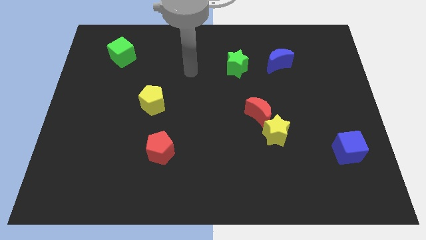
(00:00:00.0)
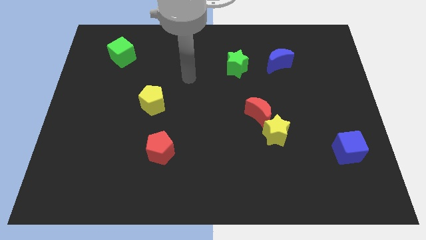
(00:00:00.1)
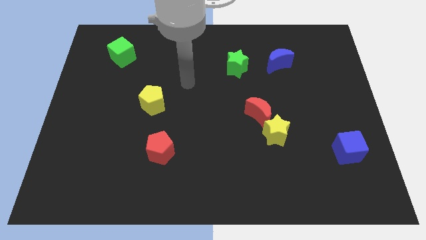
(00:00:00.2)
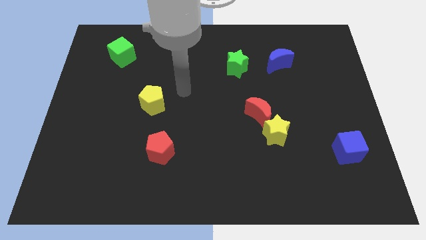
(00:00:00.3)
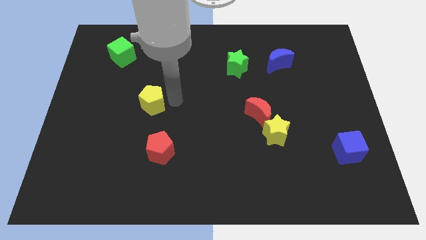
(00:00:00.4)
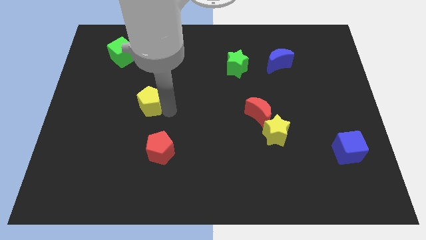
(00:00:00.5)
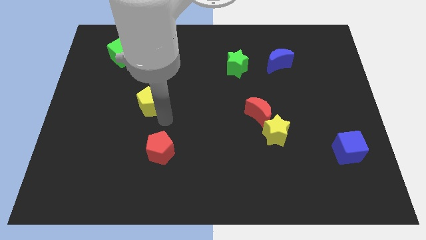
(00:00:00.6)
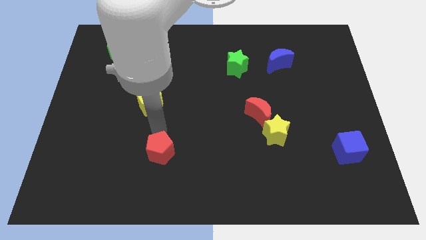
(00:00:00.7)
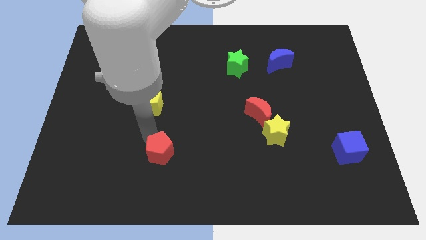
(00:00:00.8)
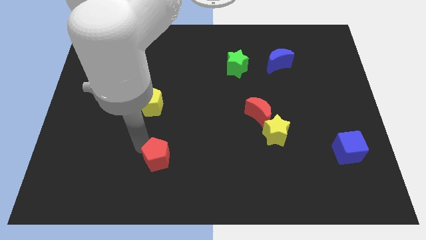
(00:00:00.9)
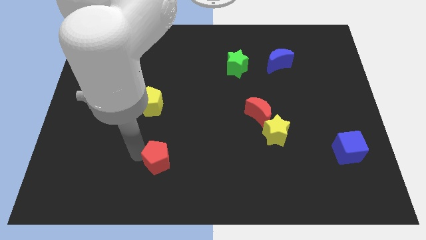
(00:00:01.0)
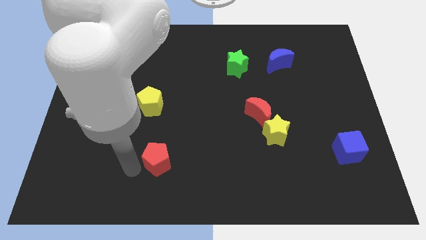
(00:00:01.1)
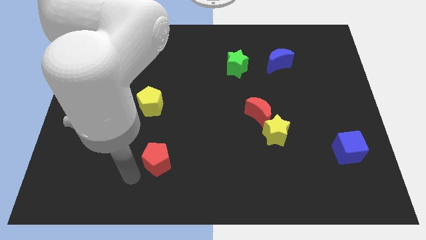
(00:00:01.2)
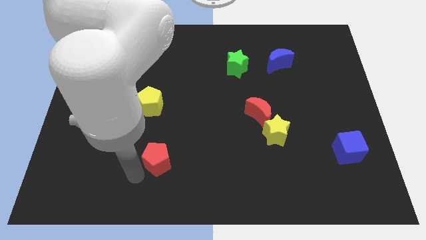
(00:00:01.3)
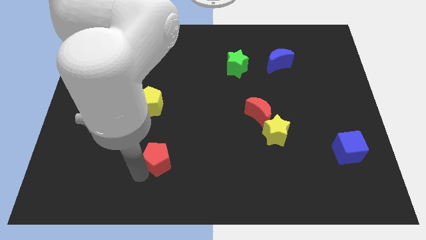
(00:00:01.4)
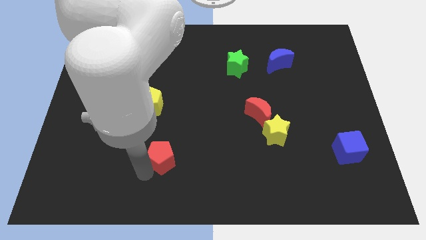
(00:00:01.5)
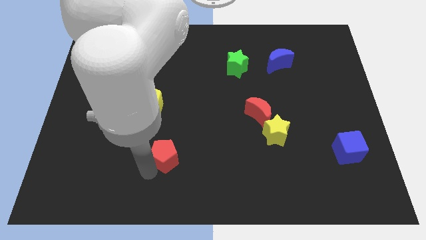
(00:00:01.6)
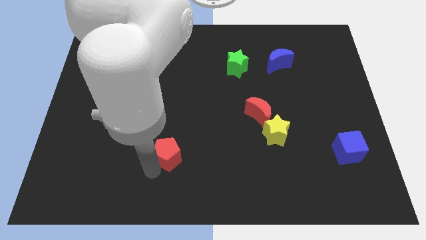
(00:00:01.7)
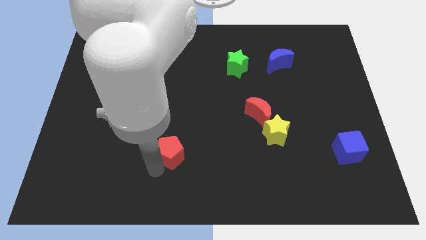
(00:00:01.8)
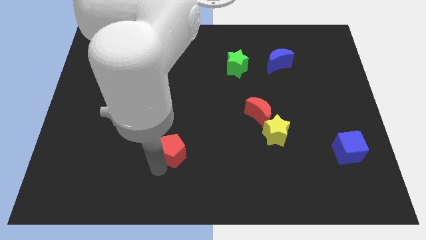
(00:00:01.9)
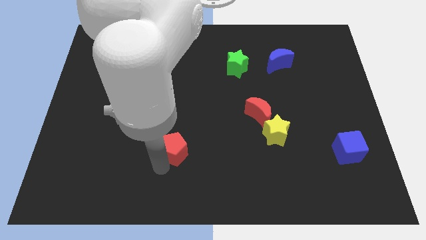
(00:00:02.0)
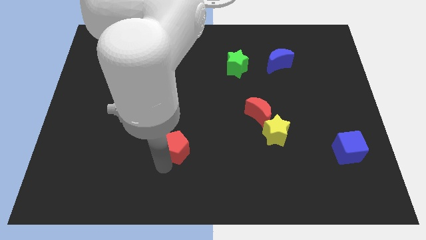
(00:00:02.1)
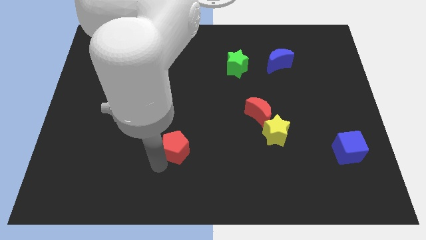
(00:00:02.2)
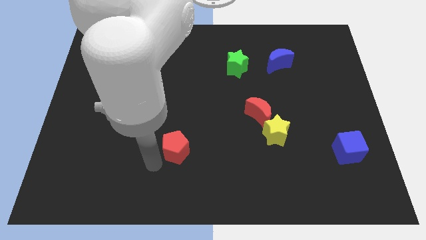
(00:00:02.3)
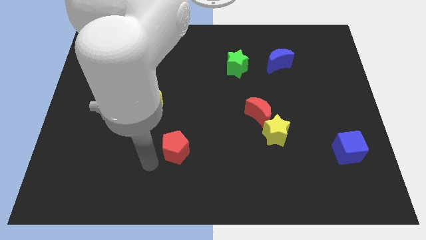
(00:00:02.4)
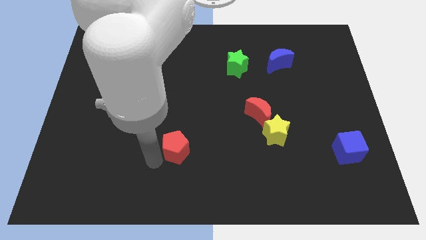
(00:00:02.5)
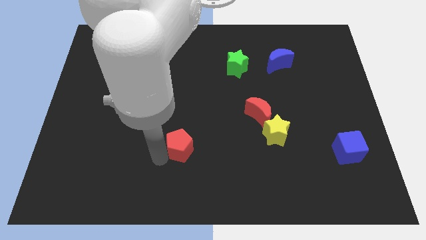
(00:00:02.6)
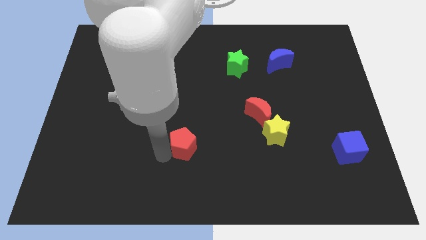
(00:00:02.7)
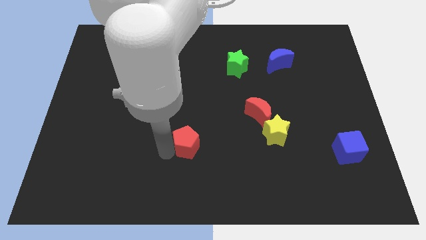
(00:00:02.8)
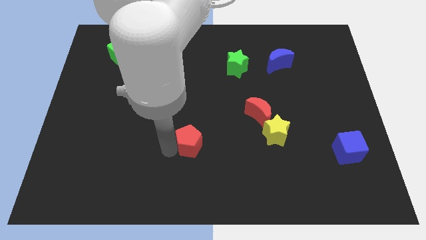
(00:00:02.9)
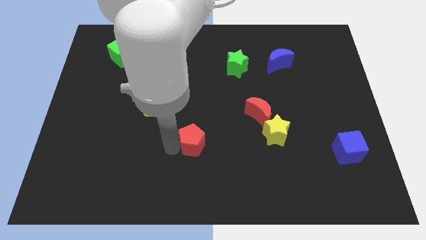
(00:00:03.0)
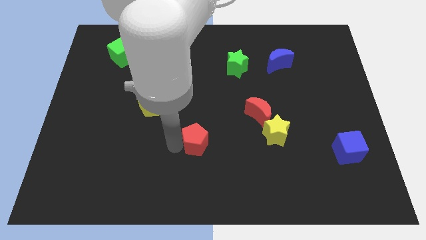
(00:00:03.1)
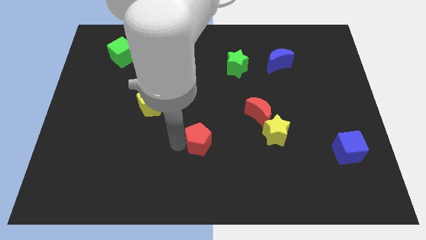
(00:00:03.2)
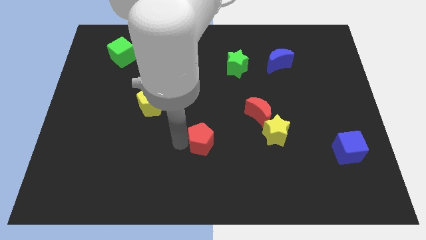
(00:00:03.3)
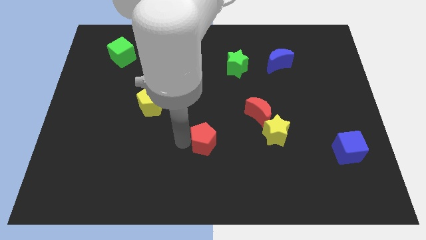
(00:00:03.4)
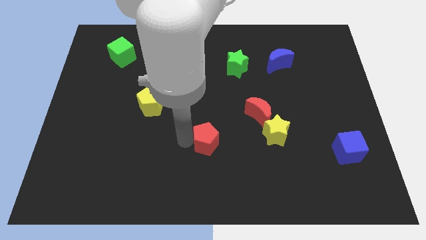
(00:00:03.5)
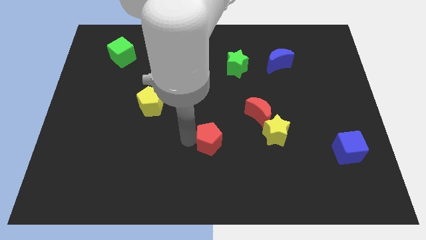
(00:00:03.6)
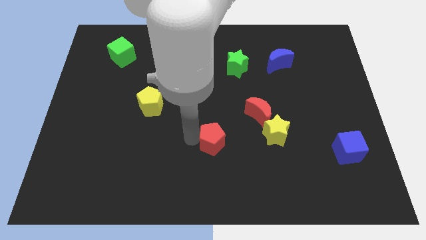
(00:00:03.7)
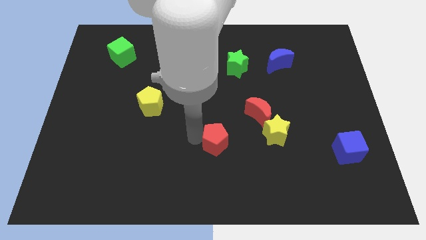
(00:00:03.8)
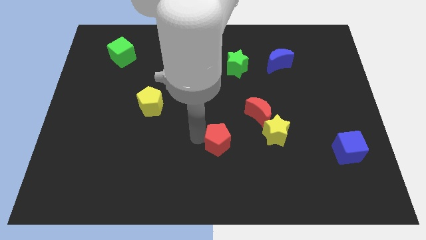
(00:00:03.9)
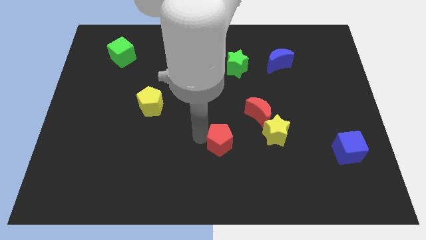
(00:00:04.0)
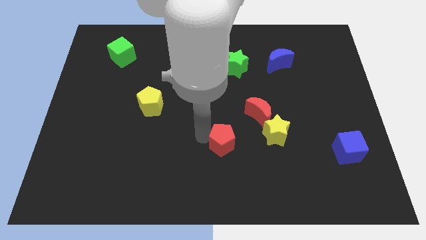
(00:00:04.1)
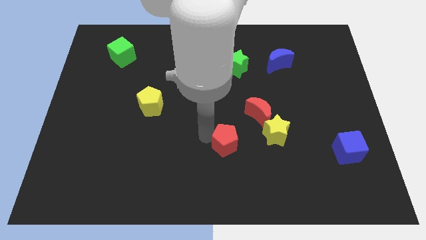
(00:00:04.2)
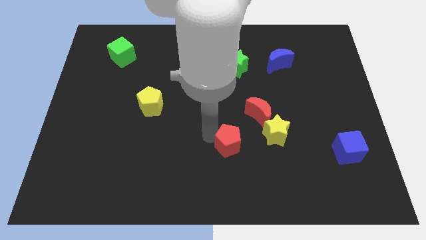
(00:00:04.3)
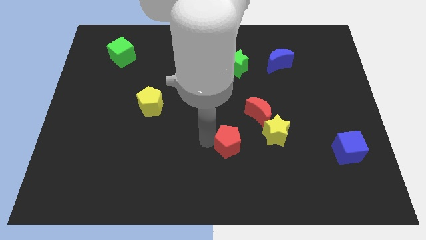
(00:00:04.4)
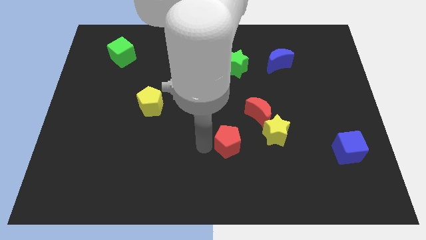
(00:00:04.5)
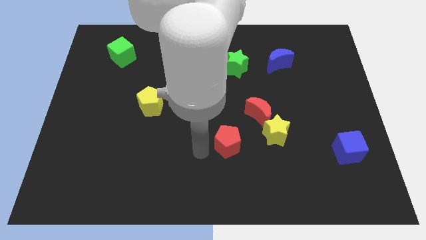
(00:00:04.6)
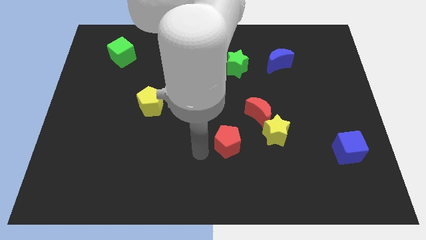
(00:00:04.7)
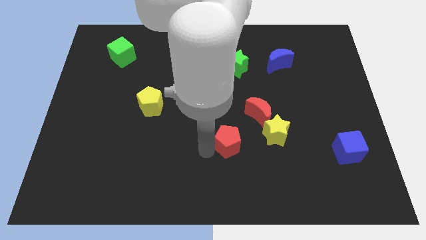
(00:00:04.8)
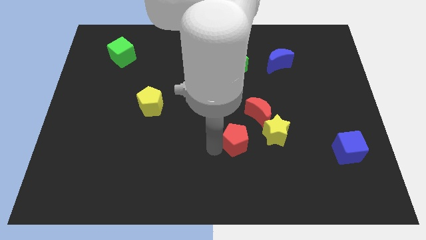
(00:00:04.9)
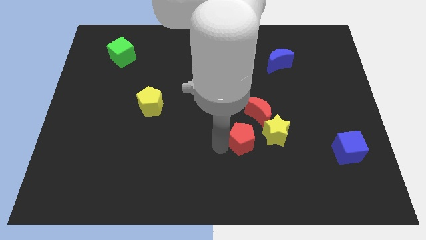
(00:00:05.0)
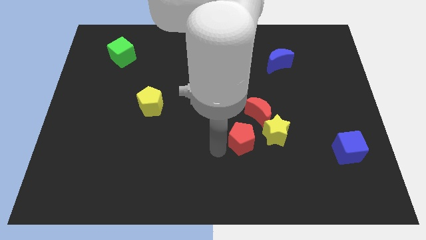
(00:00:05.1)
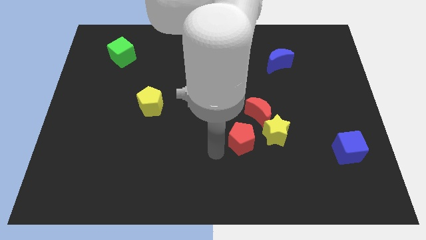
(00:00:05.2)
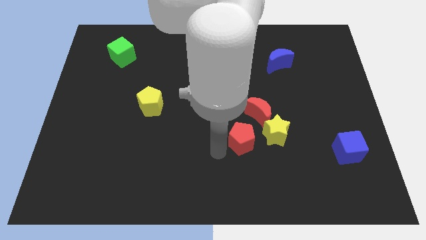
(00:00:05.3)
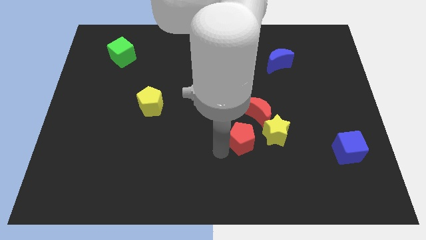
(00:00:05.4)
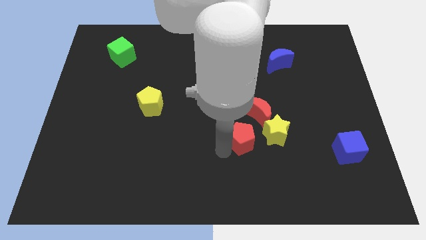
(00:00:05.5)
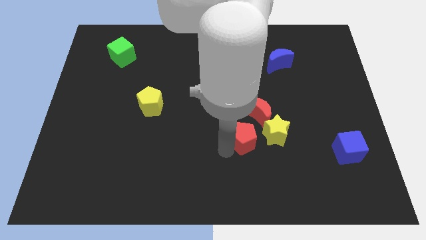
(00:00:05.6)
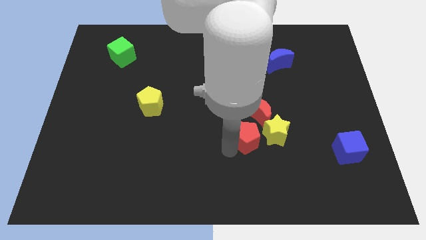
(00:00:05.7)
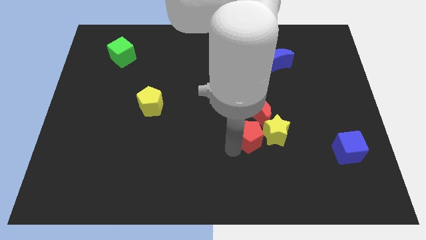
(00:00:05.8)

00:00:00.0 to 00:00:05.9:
put the red pentagon next to the yellow star

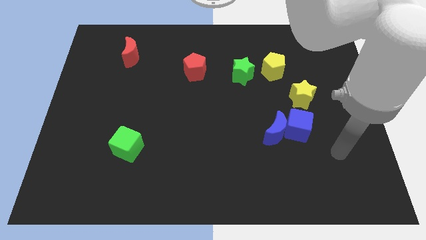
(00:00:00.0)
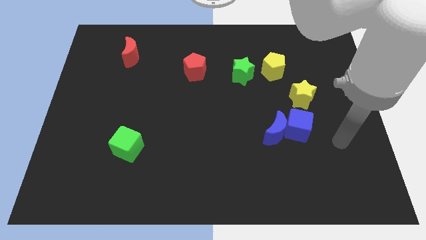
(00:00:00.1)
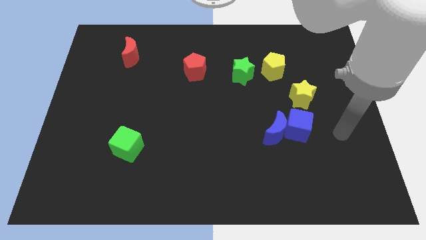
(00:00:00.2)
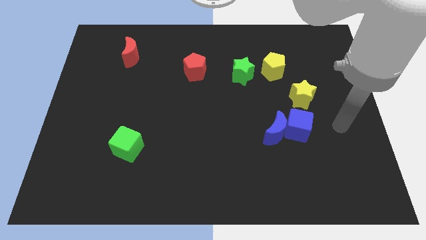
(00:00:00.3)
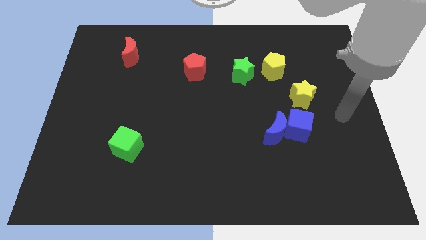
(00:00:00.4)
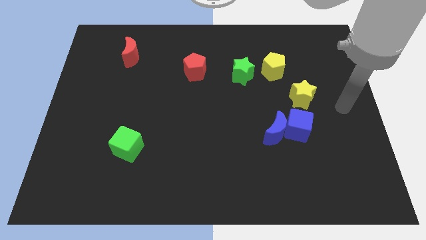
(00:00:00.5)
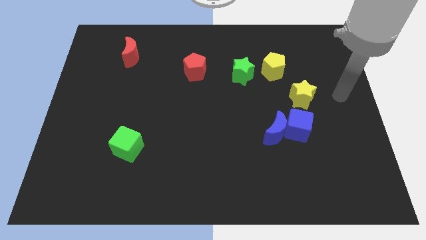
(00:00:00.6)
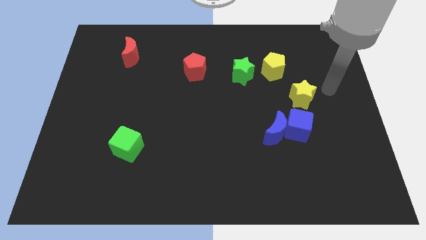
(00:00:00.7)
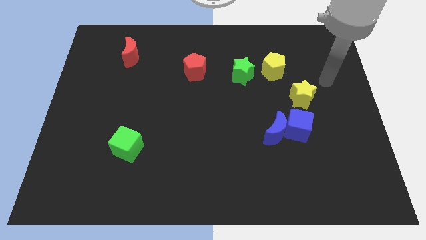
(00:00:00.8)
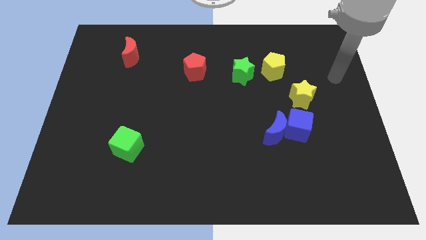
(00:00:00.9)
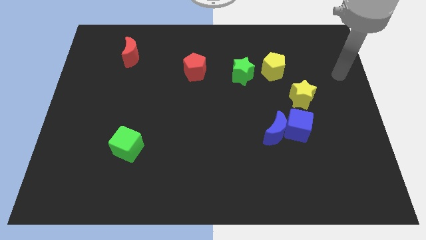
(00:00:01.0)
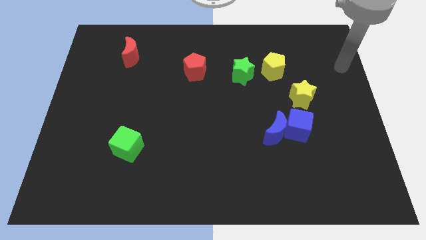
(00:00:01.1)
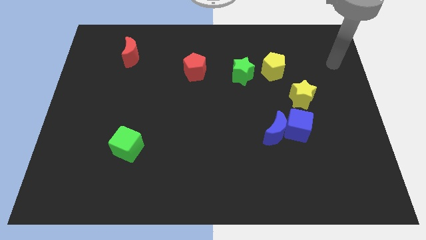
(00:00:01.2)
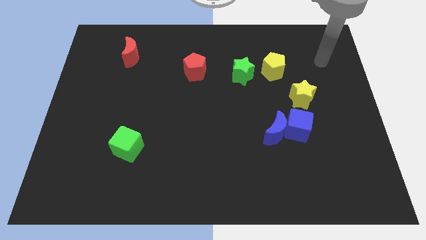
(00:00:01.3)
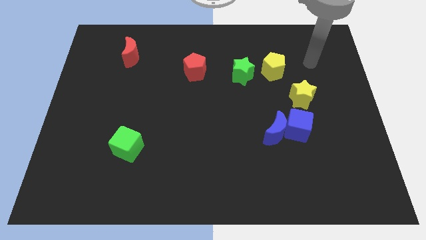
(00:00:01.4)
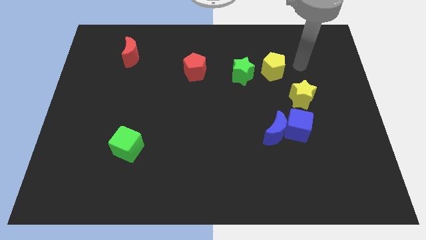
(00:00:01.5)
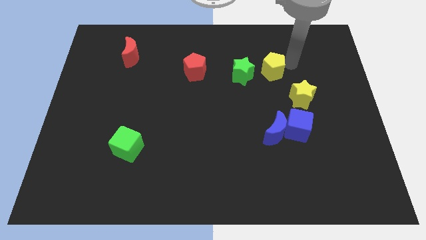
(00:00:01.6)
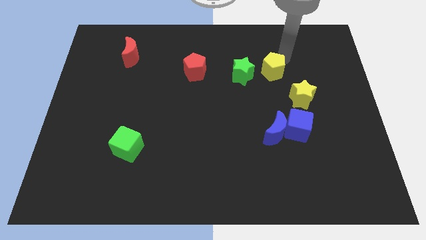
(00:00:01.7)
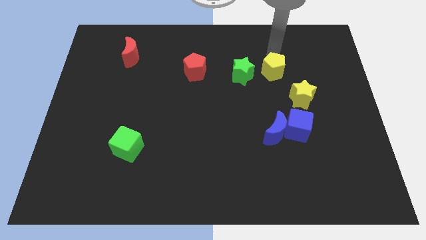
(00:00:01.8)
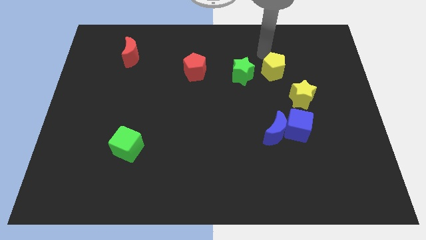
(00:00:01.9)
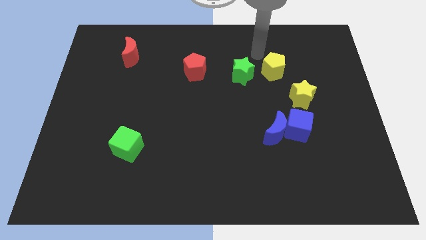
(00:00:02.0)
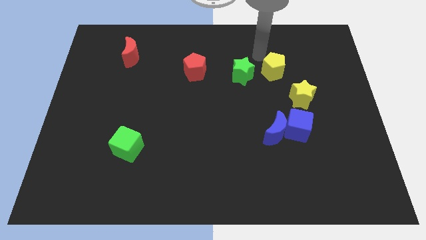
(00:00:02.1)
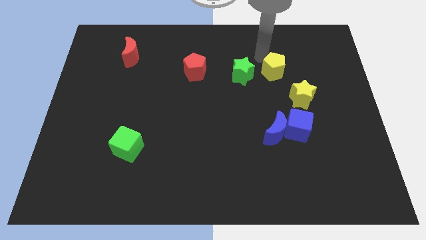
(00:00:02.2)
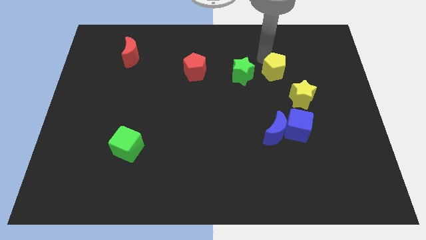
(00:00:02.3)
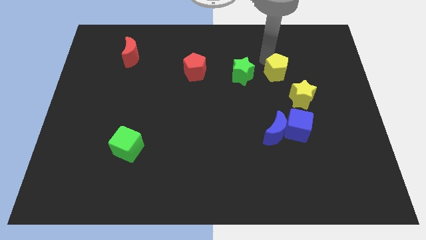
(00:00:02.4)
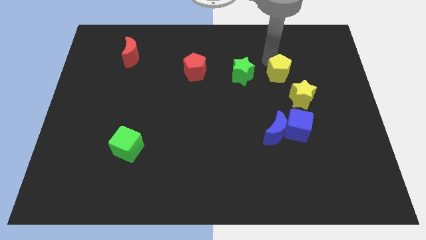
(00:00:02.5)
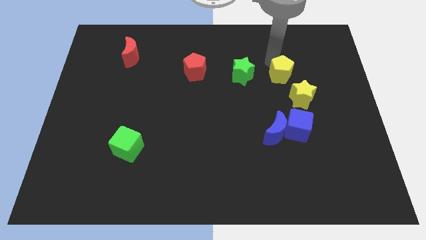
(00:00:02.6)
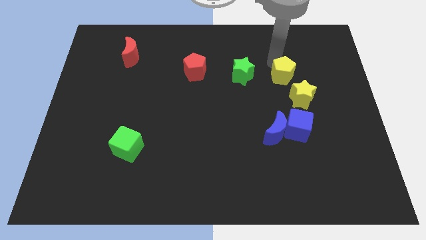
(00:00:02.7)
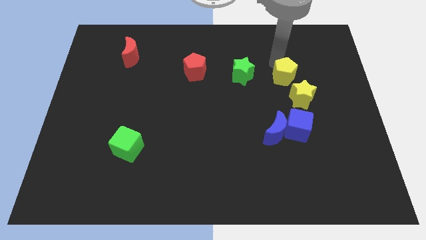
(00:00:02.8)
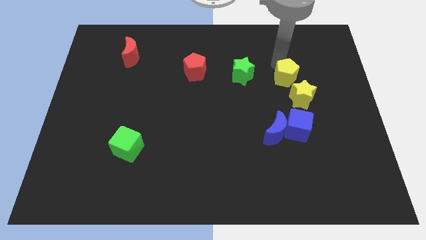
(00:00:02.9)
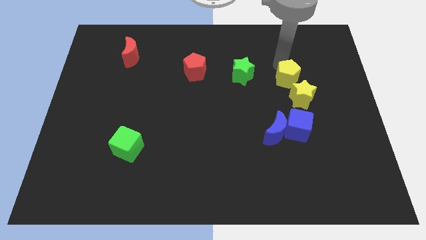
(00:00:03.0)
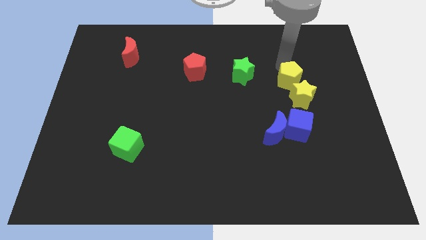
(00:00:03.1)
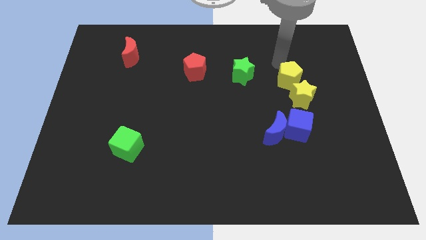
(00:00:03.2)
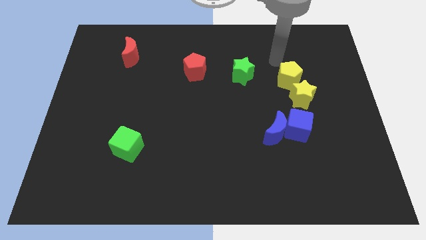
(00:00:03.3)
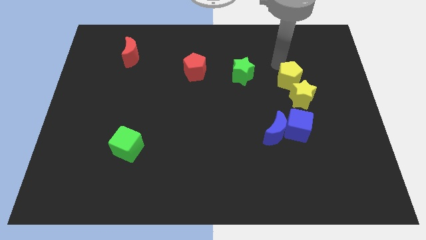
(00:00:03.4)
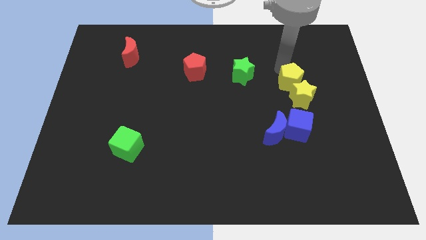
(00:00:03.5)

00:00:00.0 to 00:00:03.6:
slide the yellow pentagon next to the yellow star
